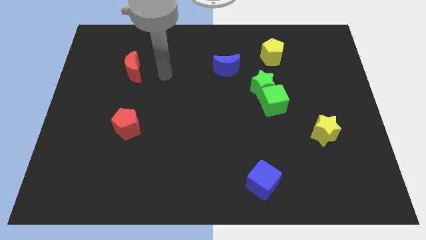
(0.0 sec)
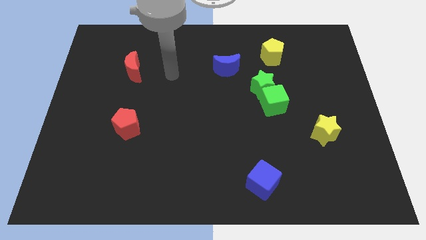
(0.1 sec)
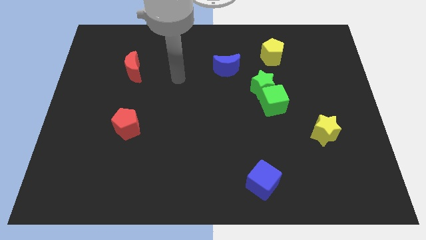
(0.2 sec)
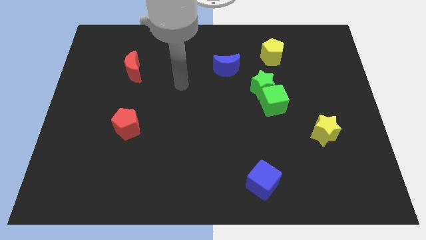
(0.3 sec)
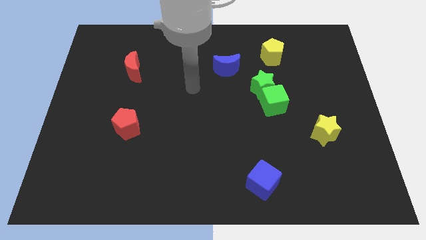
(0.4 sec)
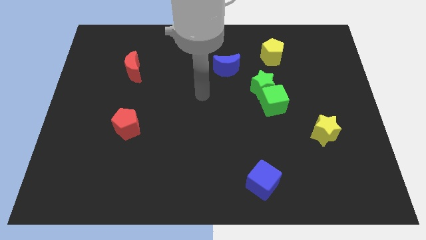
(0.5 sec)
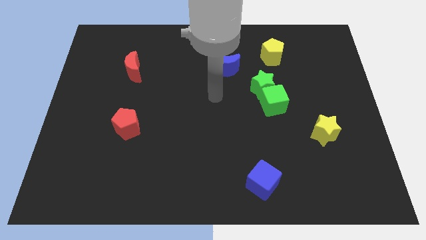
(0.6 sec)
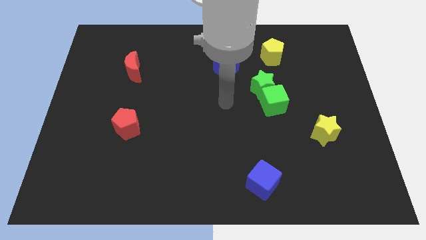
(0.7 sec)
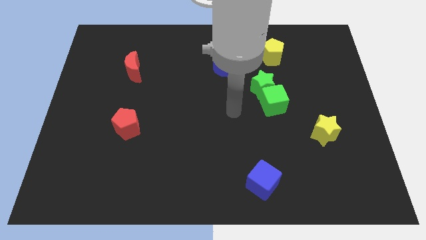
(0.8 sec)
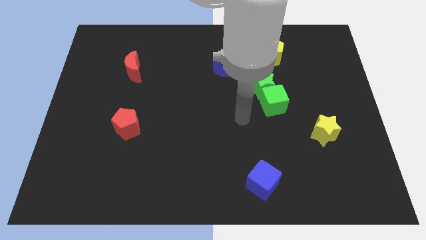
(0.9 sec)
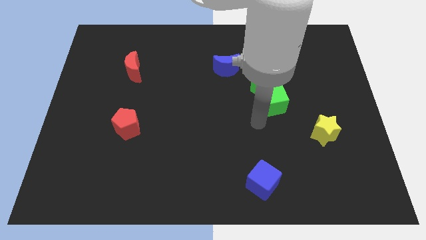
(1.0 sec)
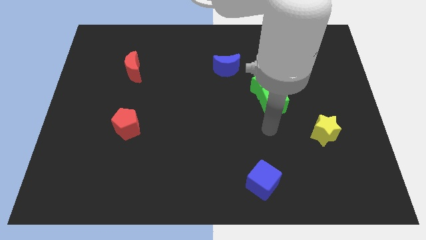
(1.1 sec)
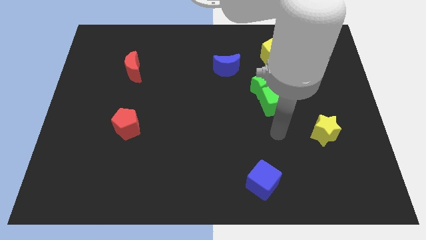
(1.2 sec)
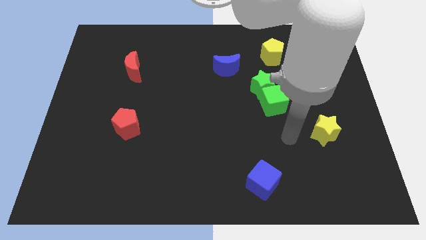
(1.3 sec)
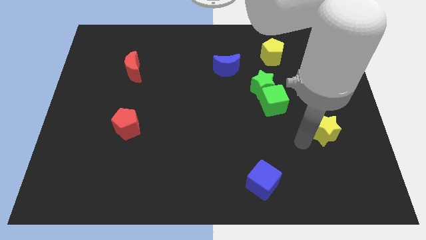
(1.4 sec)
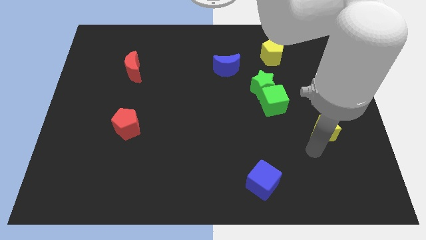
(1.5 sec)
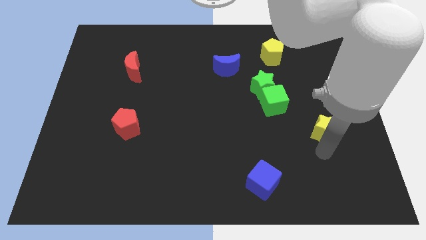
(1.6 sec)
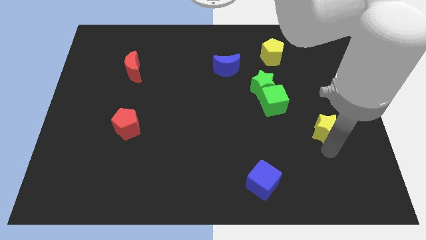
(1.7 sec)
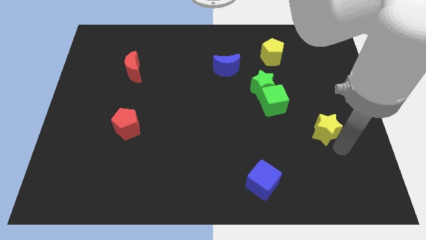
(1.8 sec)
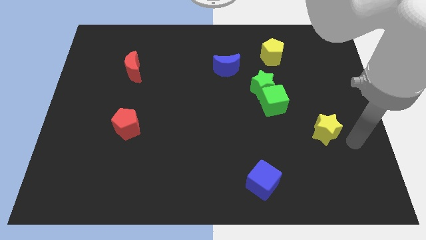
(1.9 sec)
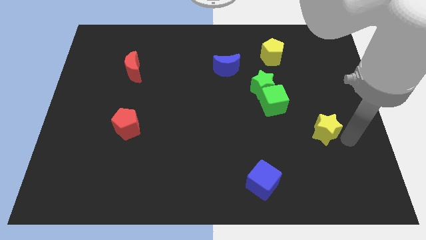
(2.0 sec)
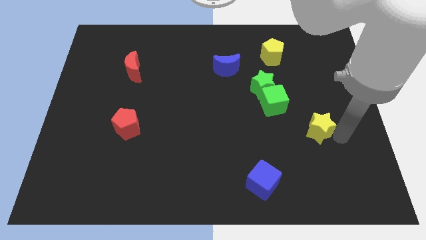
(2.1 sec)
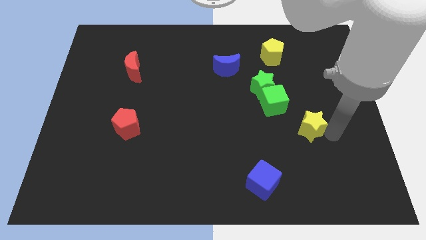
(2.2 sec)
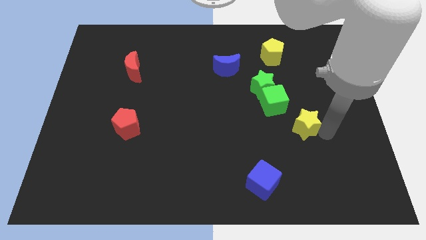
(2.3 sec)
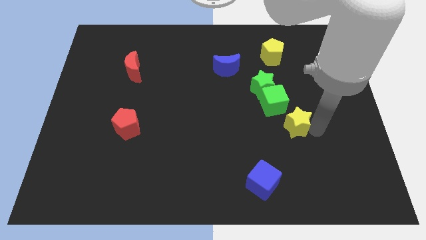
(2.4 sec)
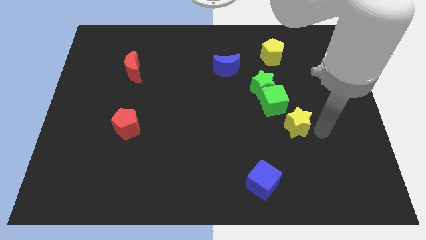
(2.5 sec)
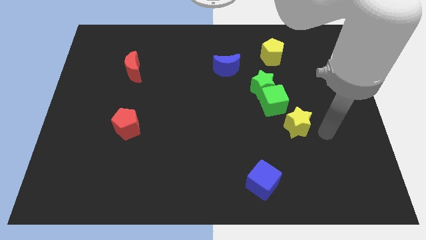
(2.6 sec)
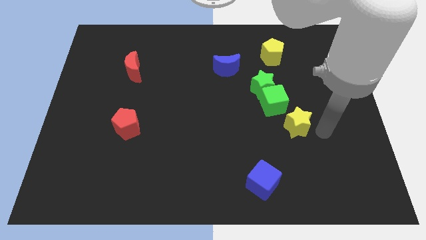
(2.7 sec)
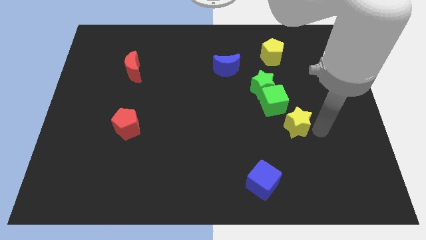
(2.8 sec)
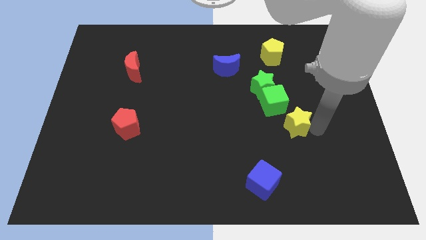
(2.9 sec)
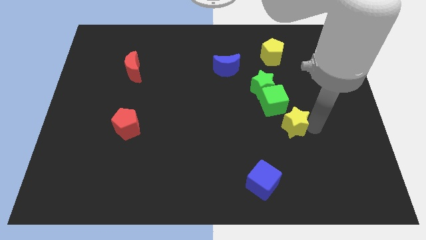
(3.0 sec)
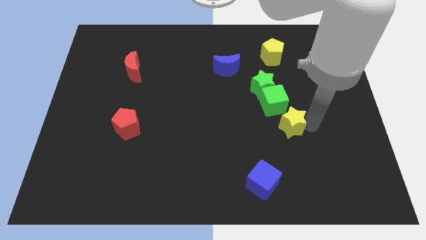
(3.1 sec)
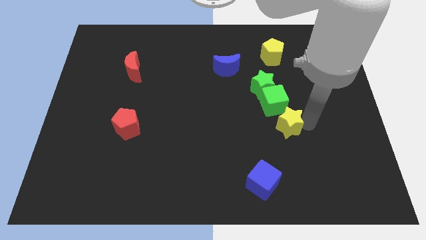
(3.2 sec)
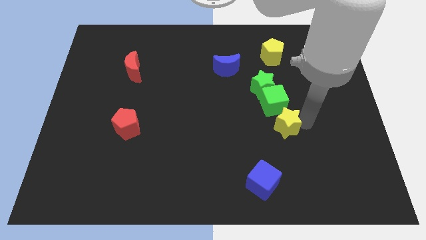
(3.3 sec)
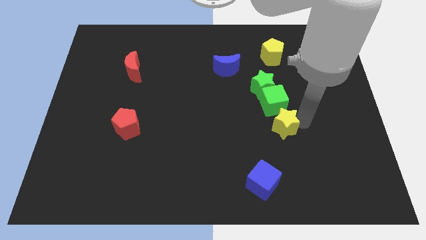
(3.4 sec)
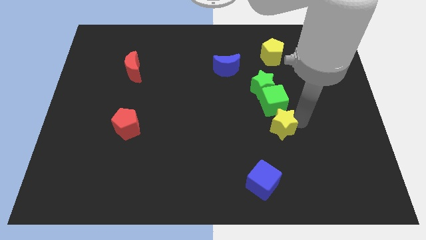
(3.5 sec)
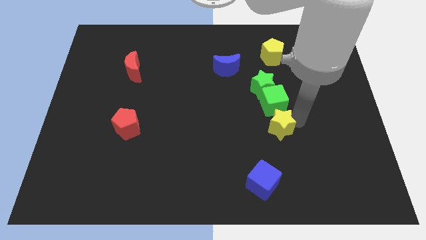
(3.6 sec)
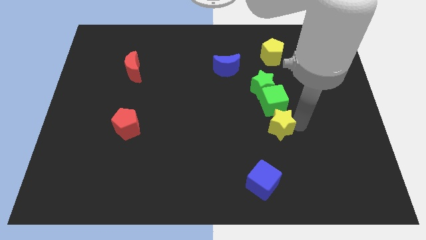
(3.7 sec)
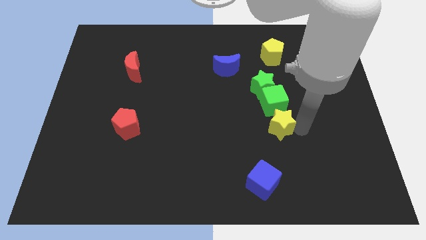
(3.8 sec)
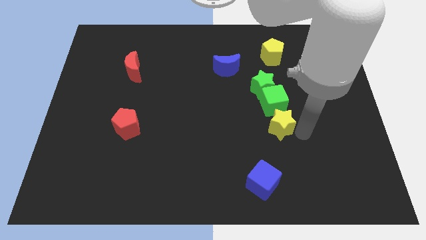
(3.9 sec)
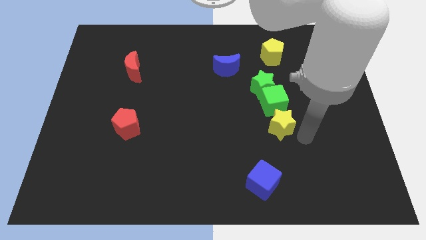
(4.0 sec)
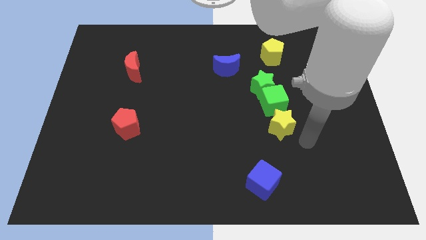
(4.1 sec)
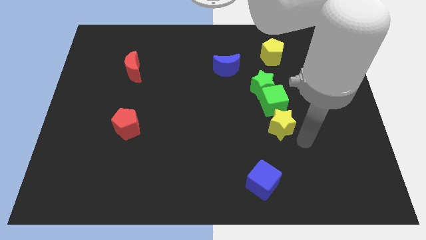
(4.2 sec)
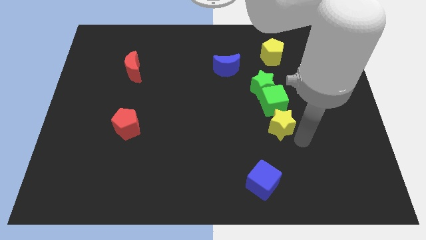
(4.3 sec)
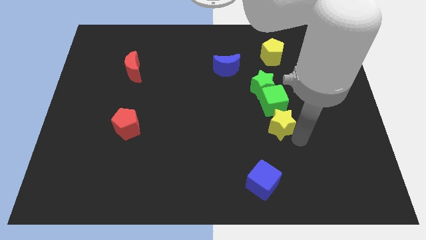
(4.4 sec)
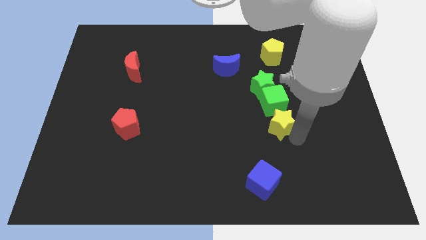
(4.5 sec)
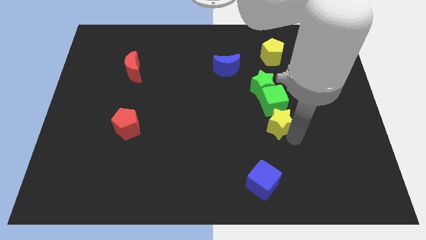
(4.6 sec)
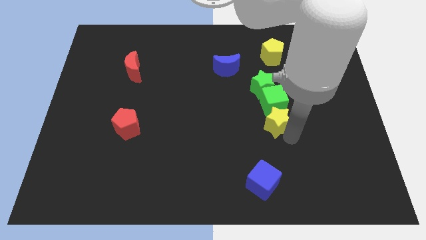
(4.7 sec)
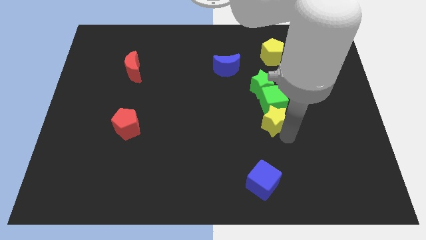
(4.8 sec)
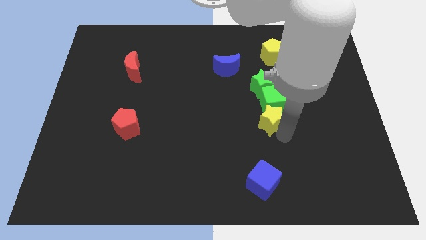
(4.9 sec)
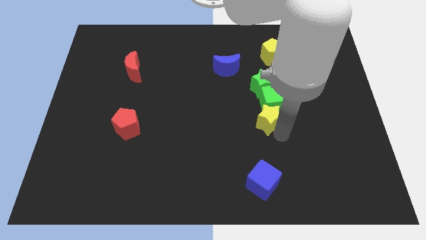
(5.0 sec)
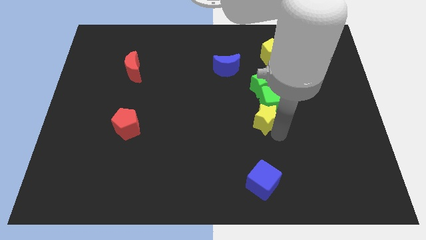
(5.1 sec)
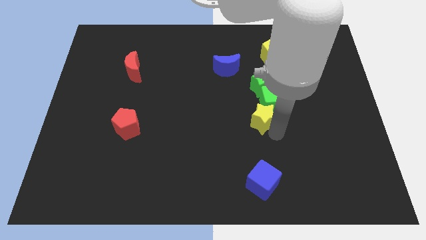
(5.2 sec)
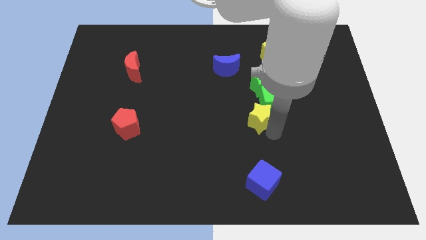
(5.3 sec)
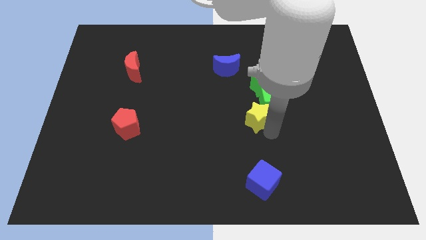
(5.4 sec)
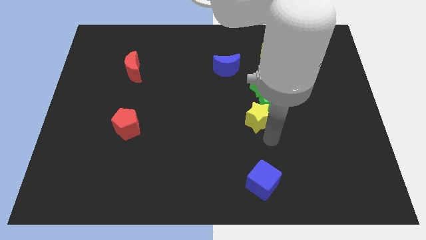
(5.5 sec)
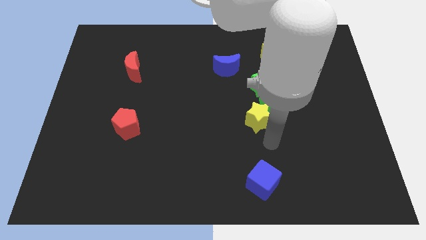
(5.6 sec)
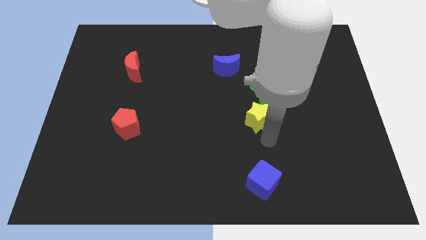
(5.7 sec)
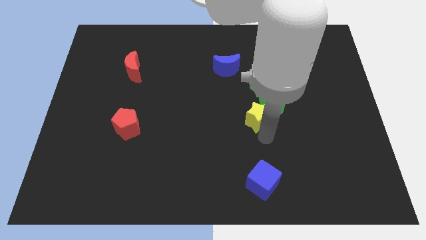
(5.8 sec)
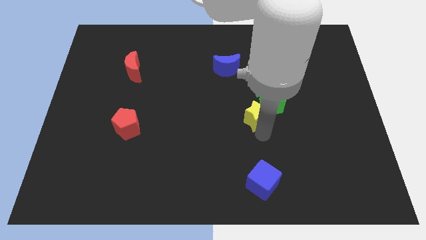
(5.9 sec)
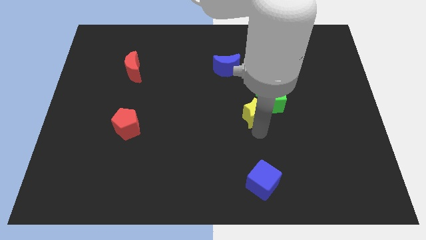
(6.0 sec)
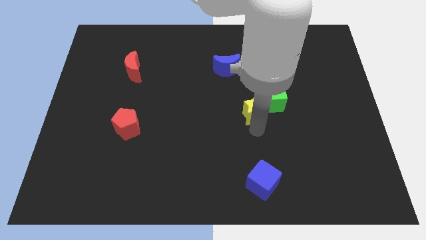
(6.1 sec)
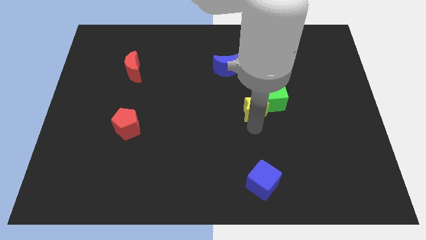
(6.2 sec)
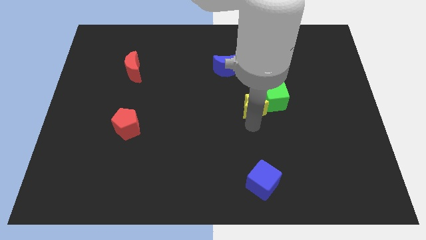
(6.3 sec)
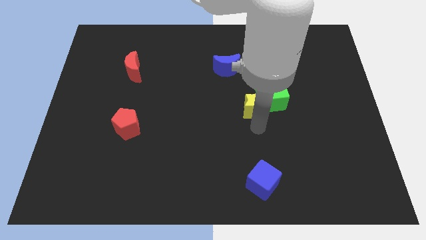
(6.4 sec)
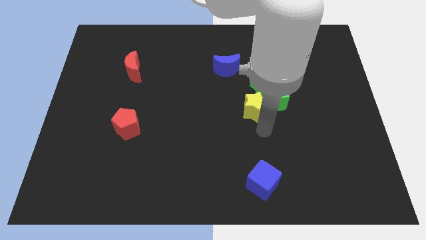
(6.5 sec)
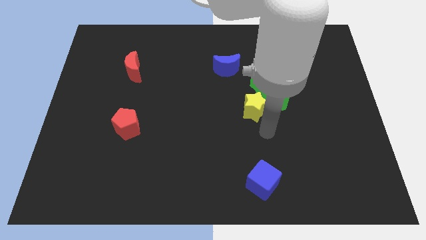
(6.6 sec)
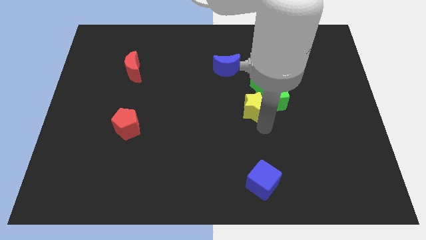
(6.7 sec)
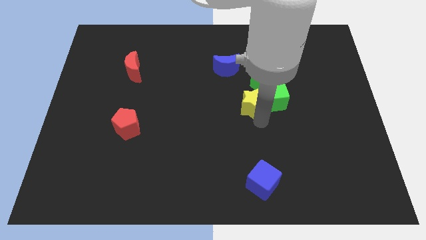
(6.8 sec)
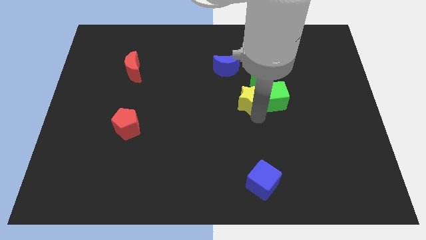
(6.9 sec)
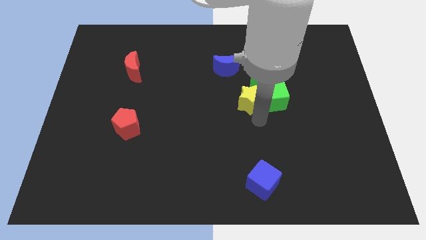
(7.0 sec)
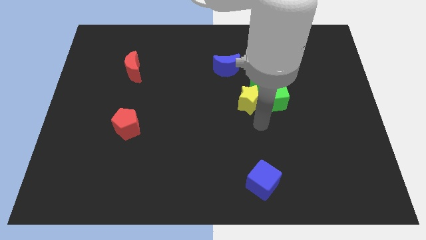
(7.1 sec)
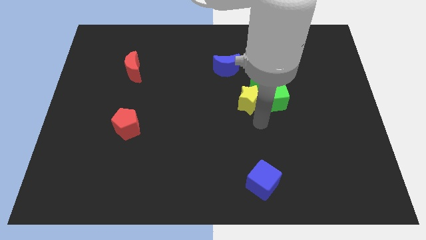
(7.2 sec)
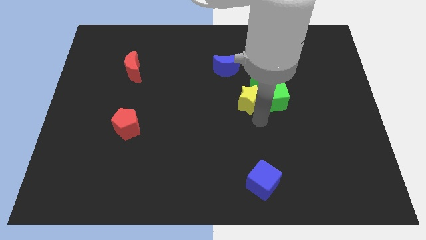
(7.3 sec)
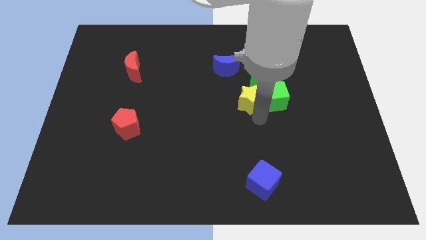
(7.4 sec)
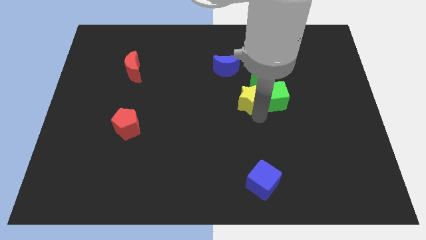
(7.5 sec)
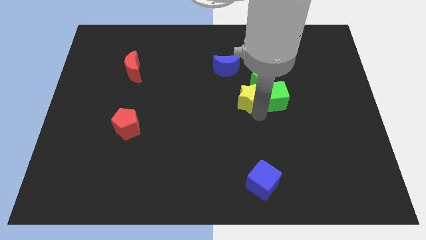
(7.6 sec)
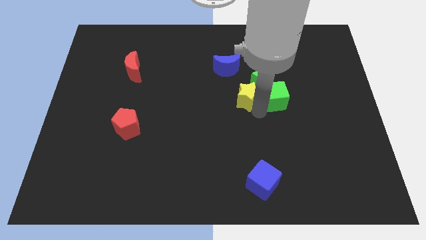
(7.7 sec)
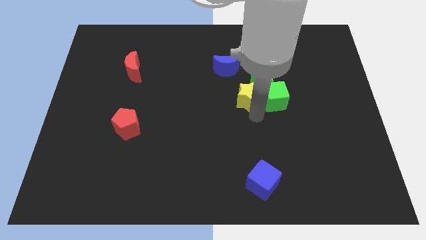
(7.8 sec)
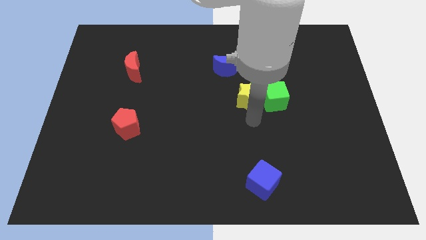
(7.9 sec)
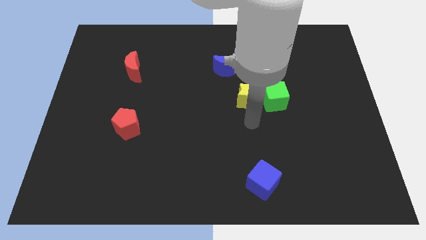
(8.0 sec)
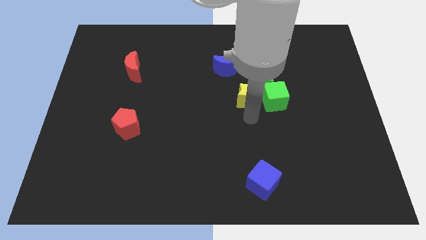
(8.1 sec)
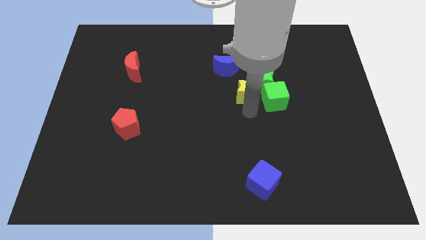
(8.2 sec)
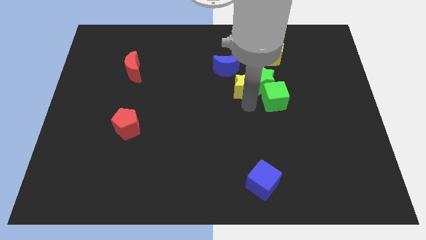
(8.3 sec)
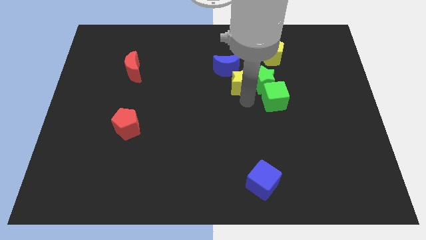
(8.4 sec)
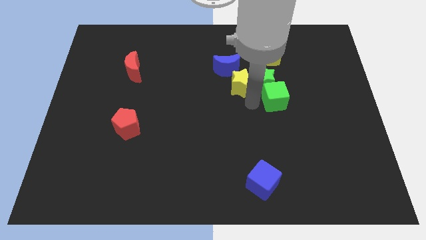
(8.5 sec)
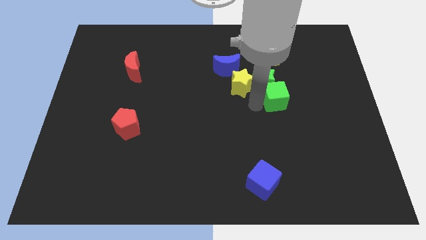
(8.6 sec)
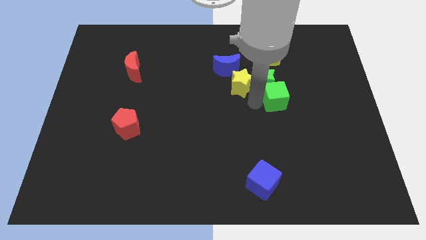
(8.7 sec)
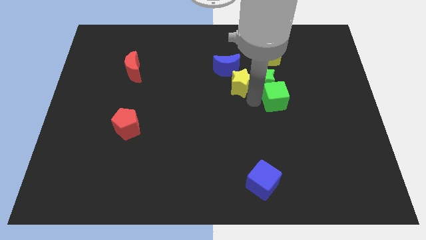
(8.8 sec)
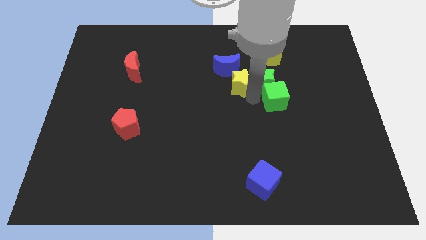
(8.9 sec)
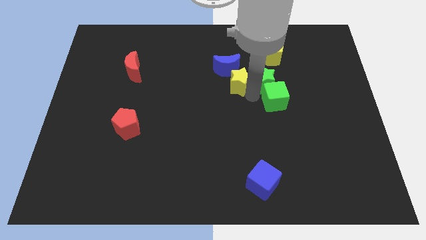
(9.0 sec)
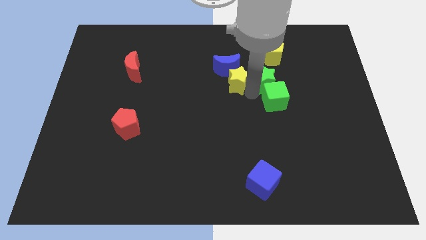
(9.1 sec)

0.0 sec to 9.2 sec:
put the yellow star to the blue moon
